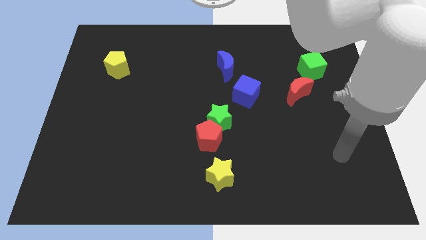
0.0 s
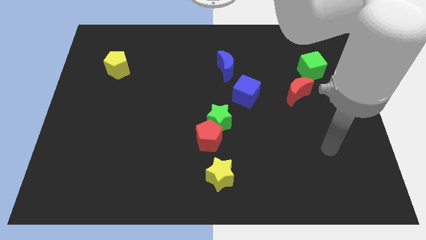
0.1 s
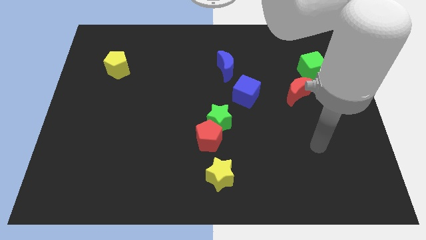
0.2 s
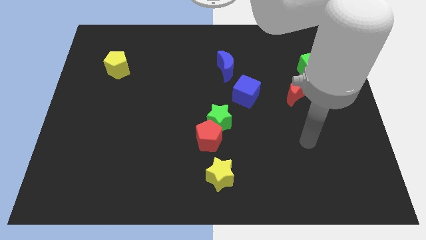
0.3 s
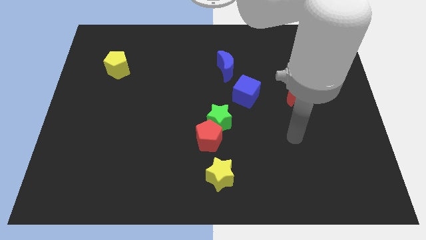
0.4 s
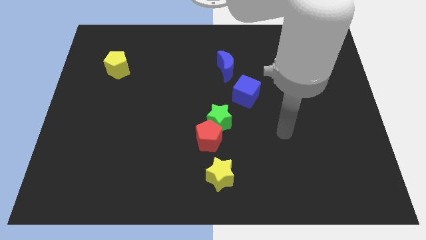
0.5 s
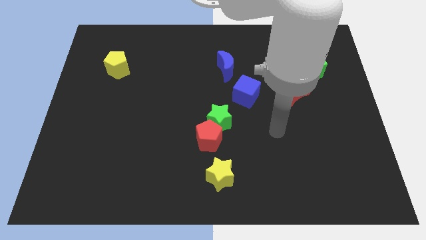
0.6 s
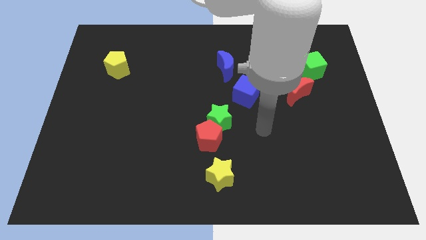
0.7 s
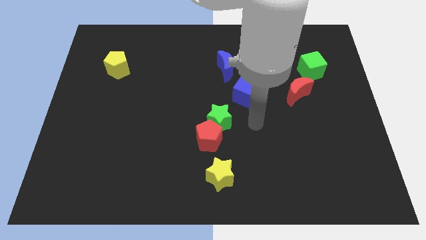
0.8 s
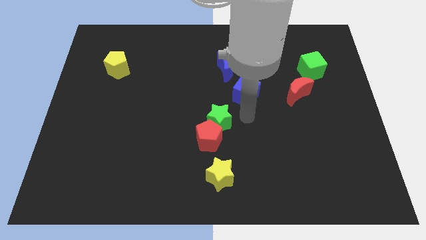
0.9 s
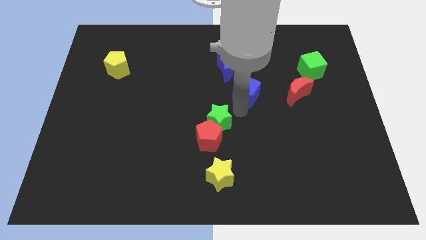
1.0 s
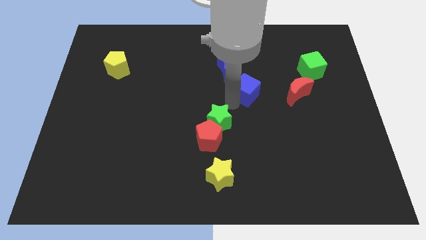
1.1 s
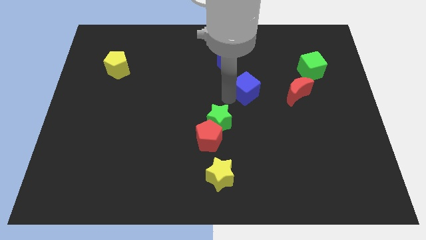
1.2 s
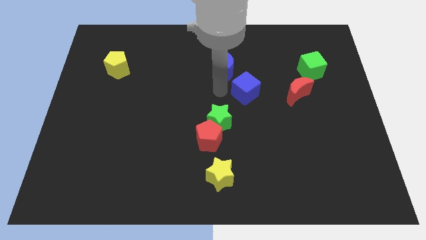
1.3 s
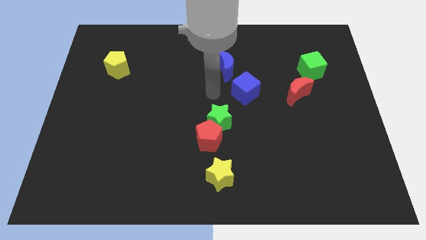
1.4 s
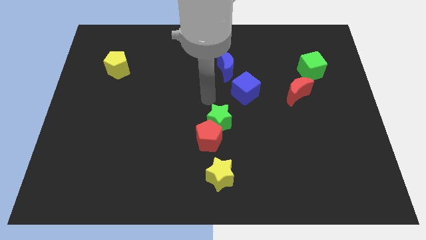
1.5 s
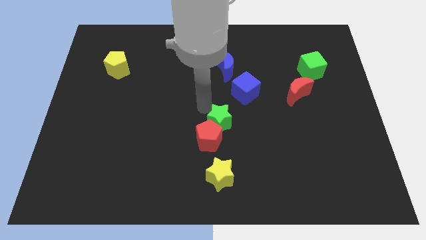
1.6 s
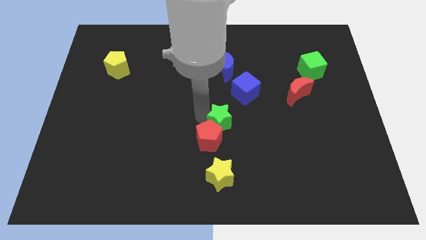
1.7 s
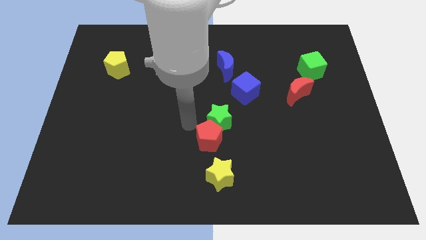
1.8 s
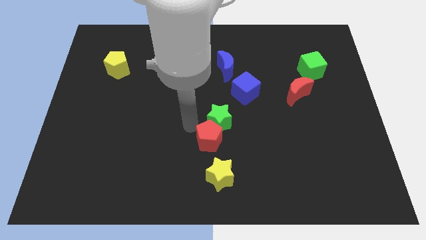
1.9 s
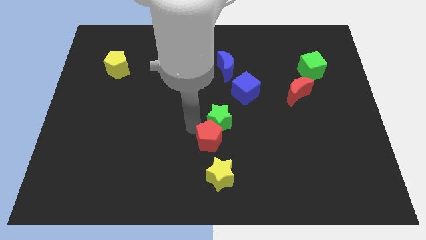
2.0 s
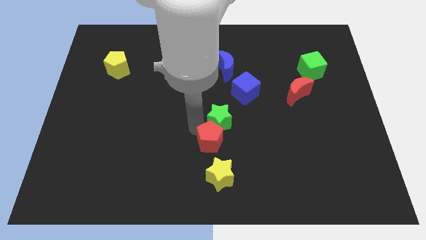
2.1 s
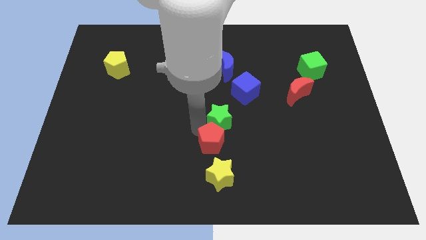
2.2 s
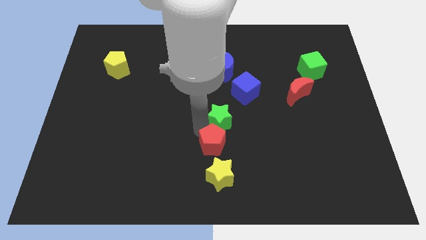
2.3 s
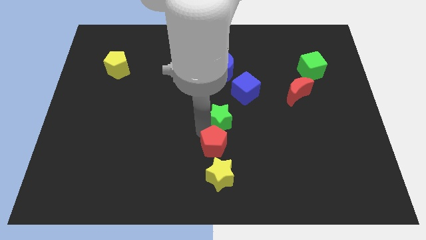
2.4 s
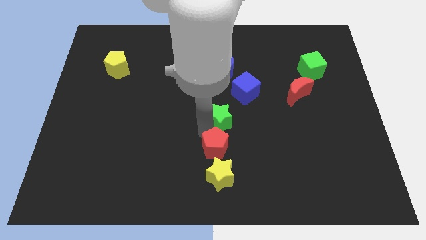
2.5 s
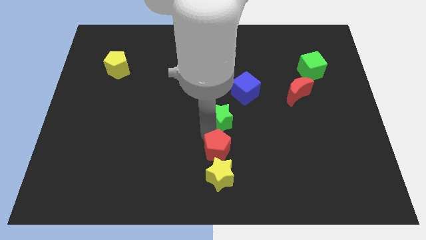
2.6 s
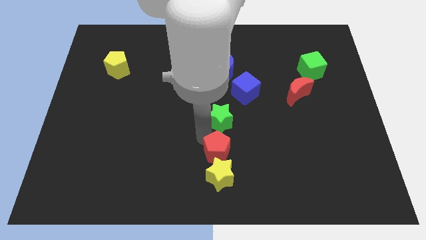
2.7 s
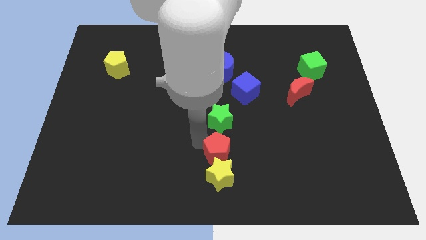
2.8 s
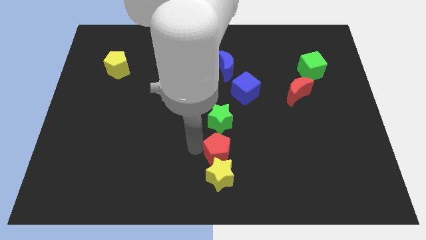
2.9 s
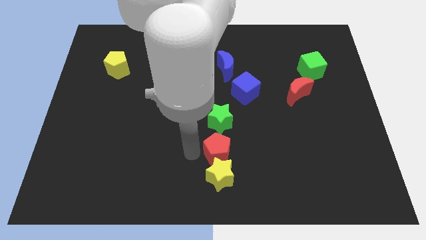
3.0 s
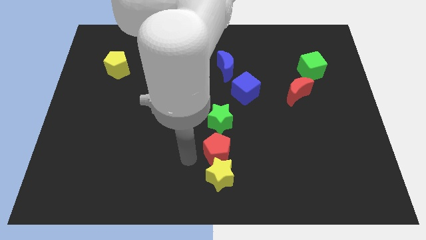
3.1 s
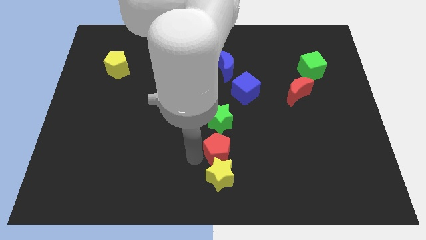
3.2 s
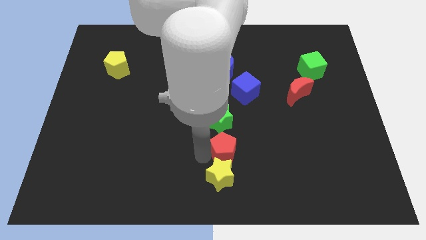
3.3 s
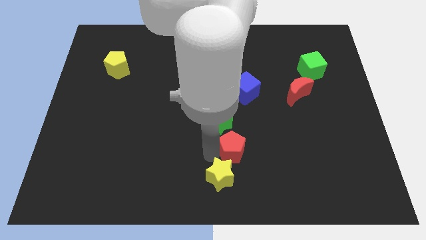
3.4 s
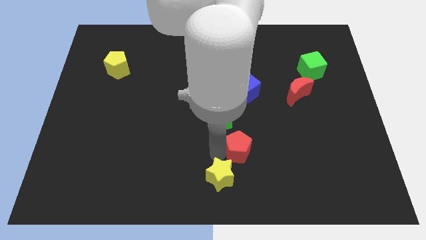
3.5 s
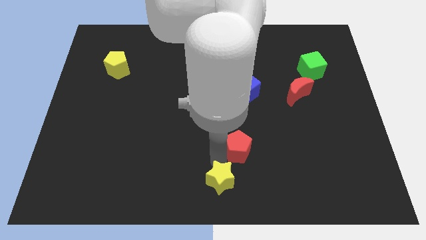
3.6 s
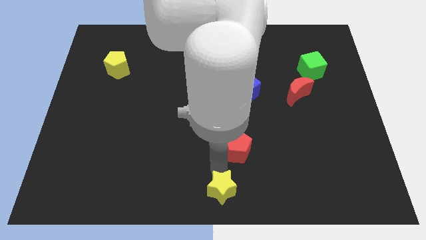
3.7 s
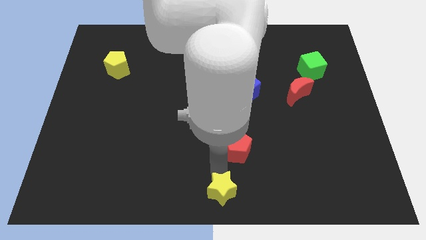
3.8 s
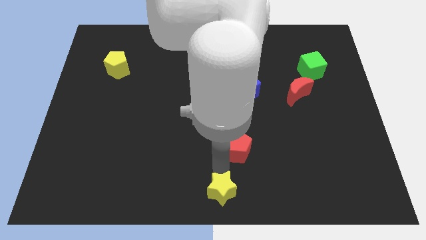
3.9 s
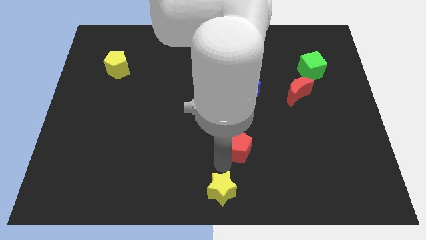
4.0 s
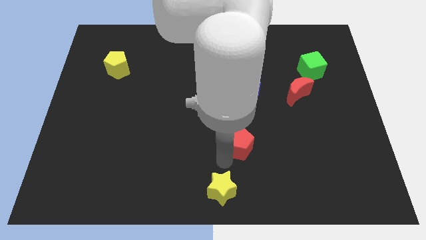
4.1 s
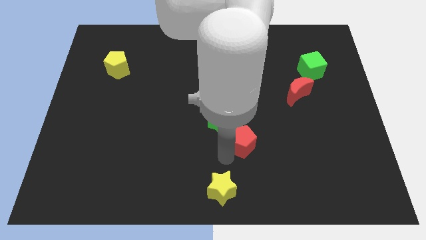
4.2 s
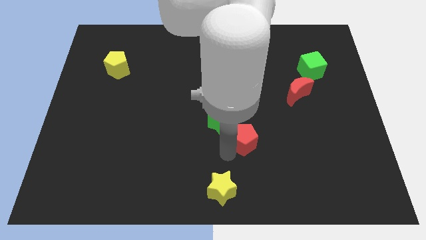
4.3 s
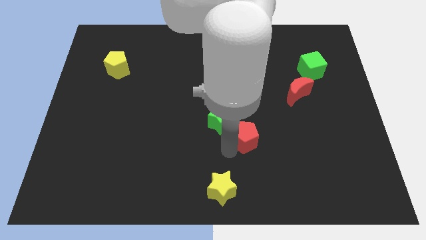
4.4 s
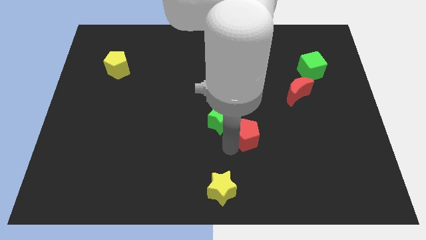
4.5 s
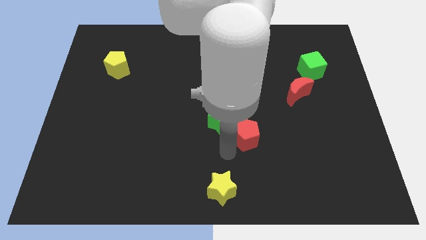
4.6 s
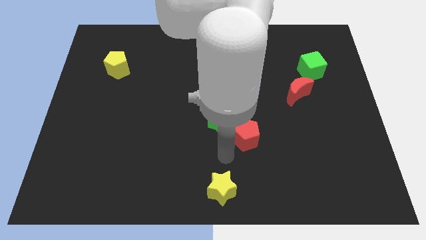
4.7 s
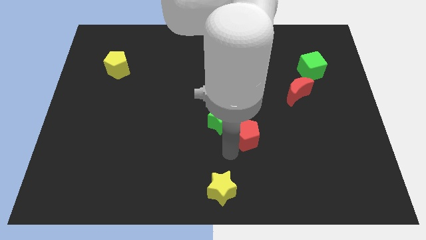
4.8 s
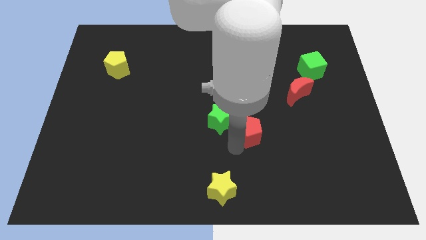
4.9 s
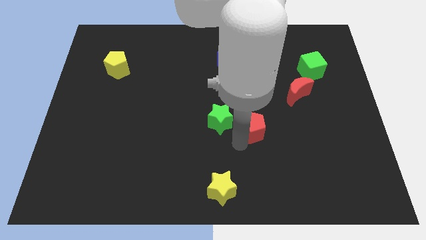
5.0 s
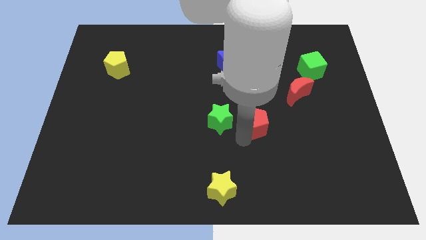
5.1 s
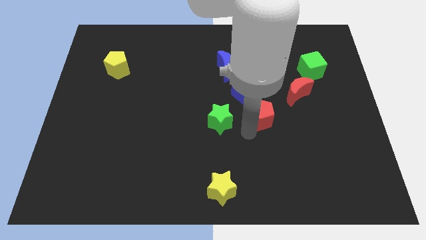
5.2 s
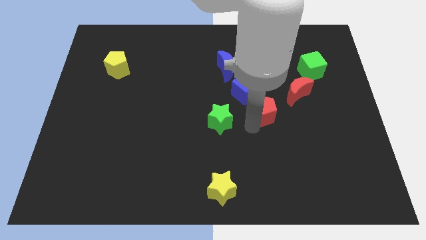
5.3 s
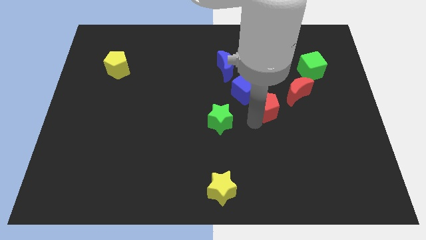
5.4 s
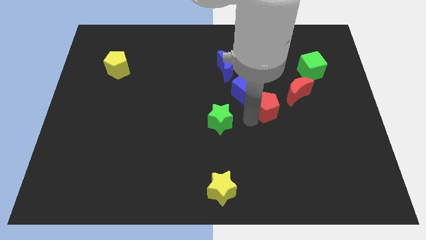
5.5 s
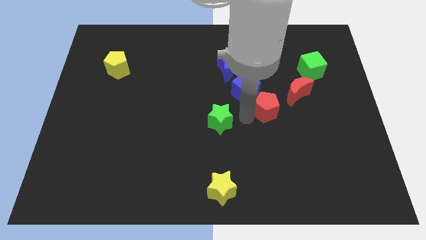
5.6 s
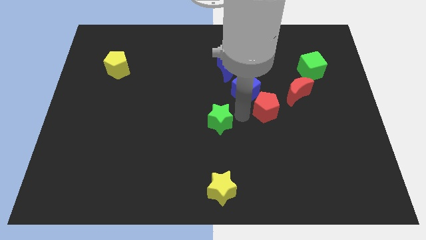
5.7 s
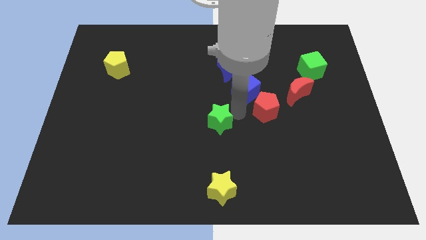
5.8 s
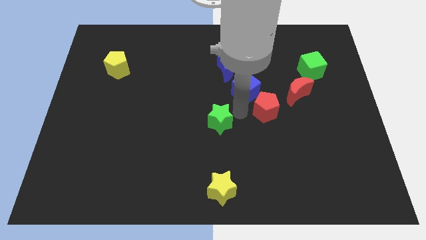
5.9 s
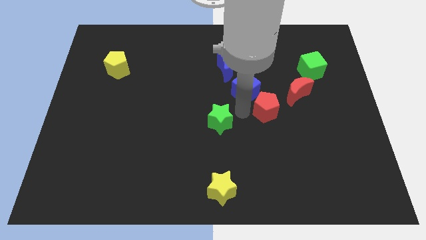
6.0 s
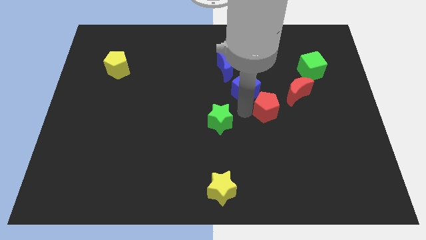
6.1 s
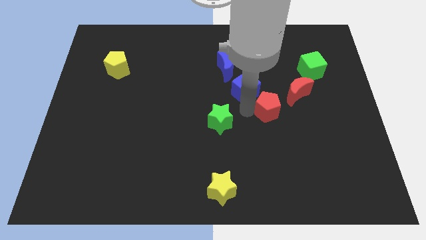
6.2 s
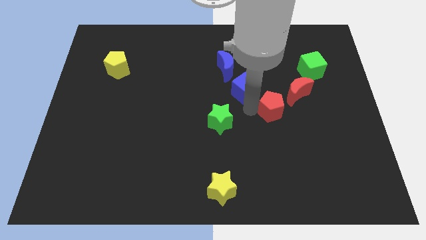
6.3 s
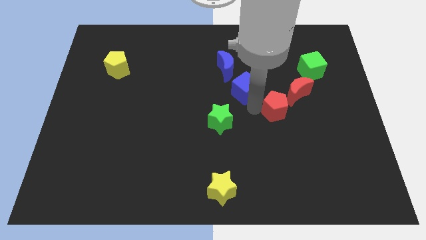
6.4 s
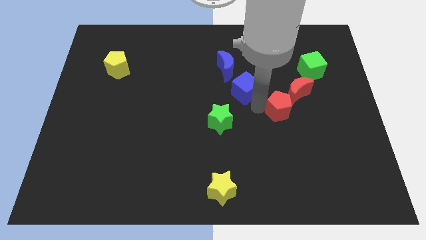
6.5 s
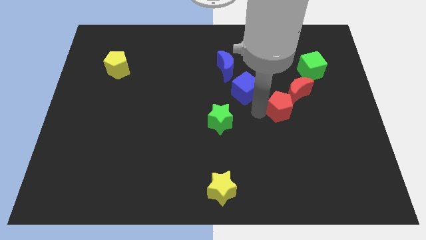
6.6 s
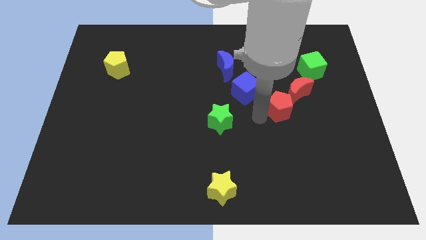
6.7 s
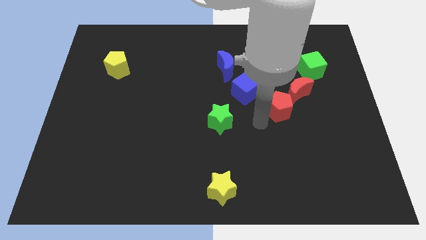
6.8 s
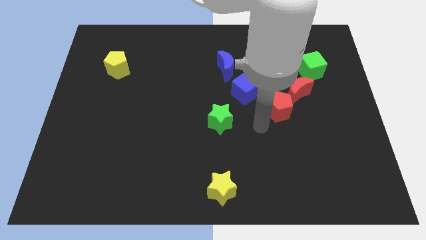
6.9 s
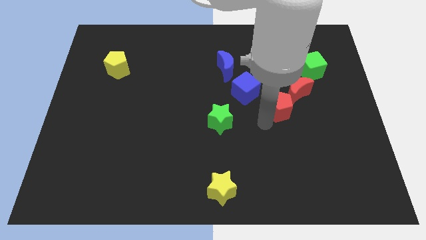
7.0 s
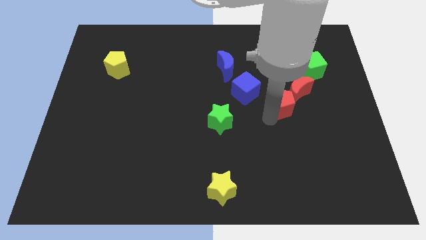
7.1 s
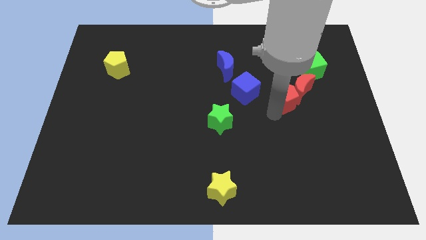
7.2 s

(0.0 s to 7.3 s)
move the red pentagon to the red moon
